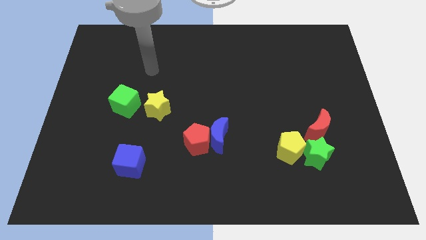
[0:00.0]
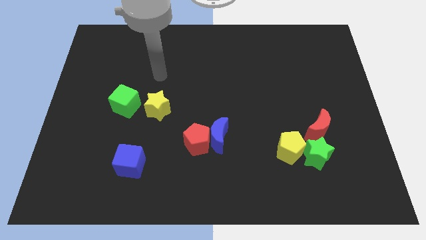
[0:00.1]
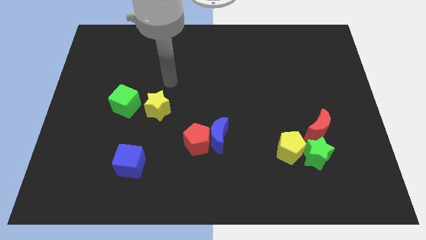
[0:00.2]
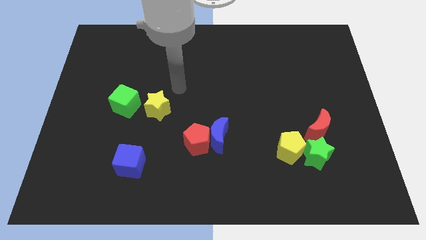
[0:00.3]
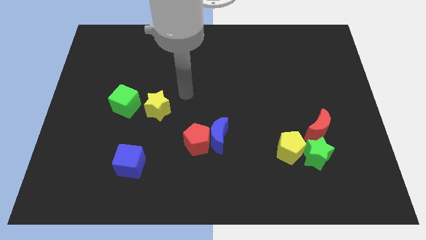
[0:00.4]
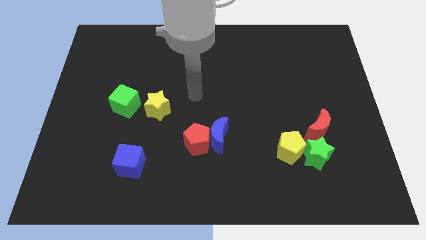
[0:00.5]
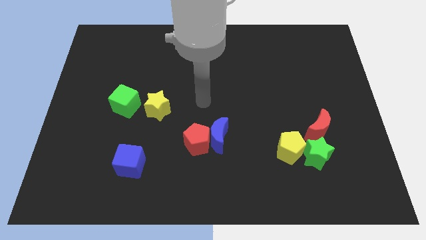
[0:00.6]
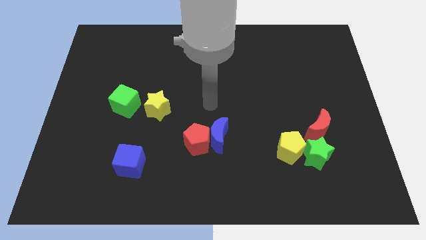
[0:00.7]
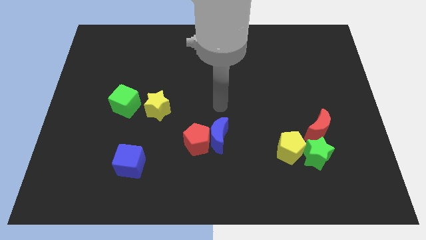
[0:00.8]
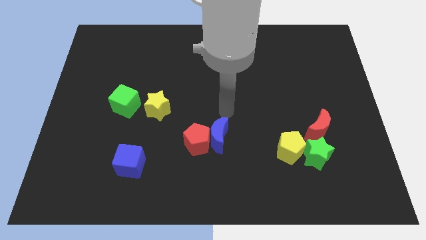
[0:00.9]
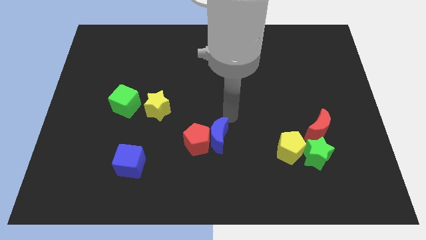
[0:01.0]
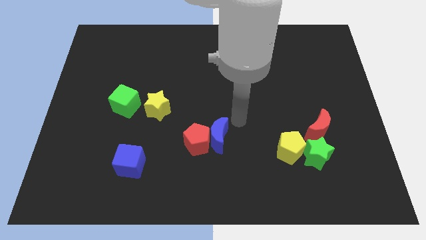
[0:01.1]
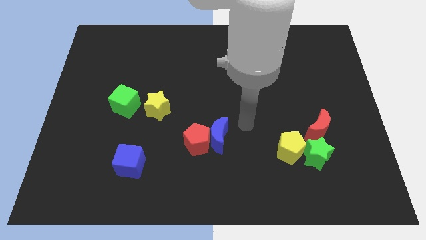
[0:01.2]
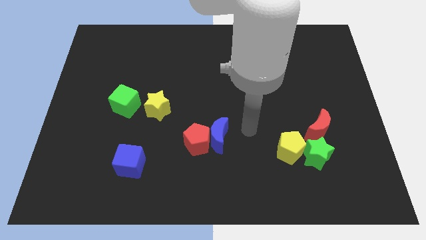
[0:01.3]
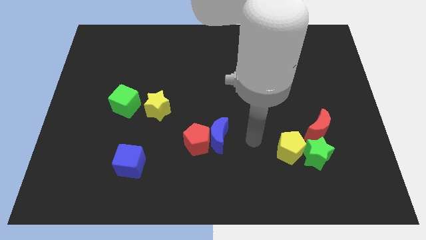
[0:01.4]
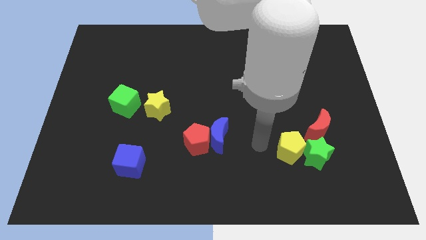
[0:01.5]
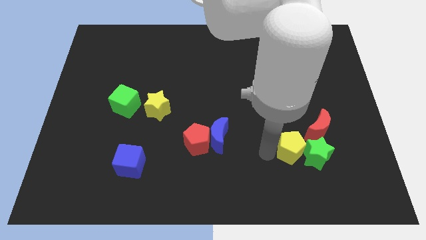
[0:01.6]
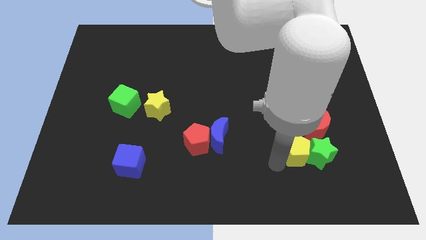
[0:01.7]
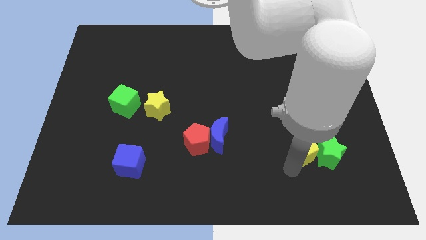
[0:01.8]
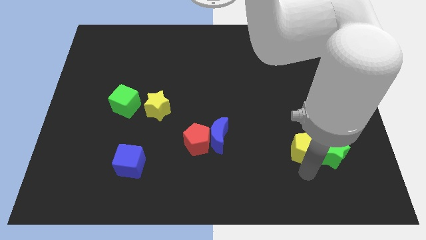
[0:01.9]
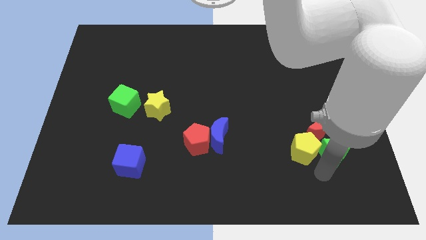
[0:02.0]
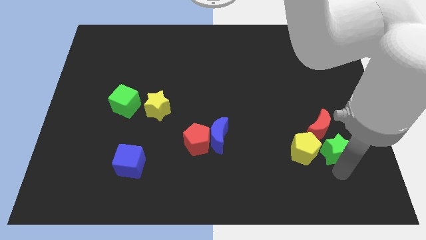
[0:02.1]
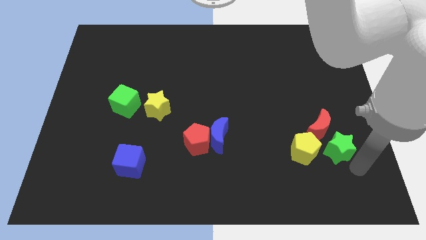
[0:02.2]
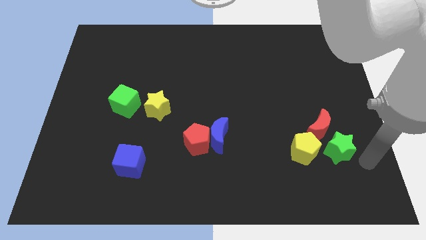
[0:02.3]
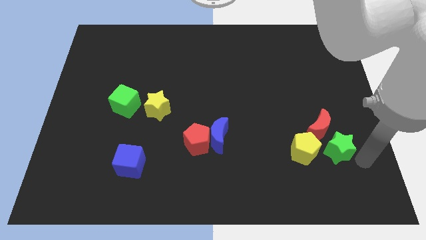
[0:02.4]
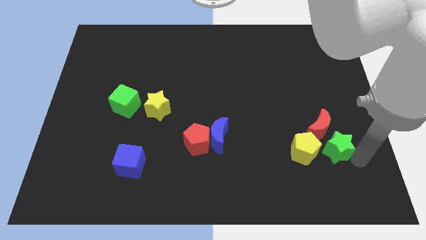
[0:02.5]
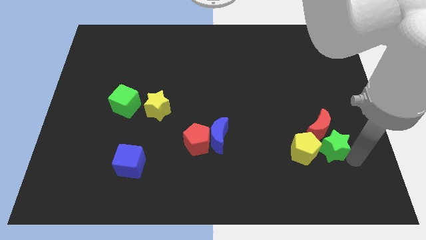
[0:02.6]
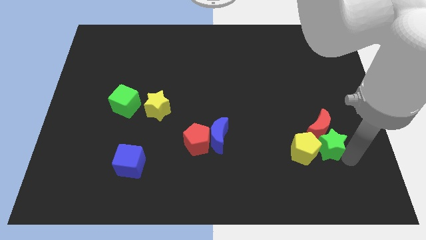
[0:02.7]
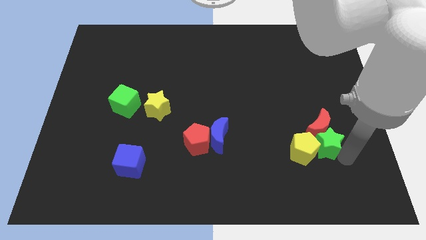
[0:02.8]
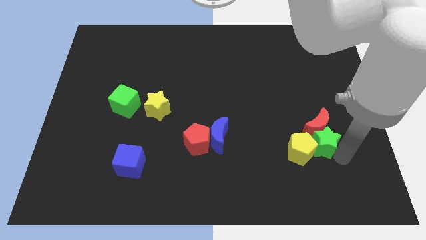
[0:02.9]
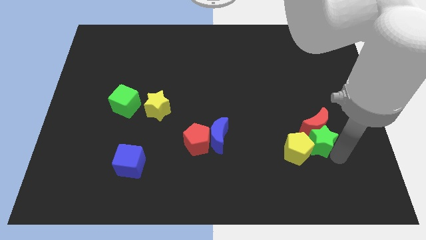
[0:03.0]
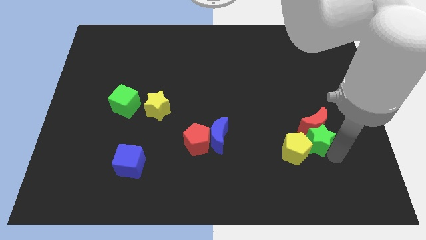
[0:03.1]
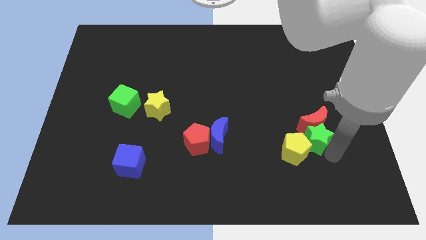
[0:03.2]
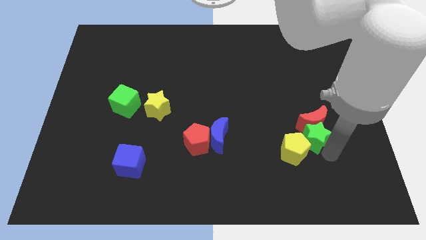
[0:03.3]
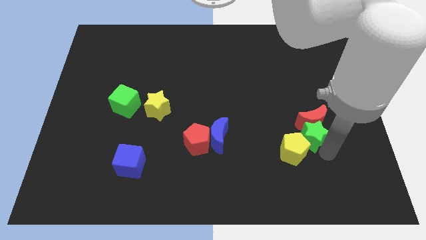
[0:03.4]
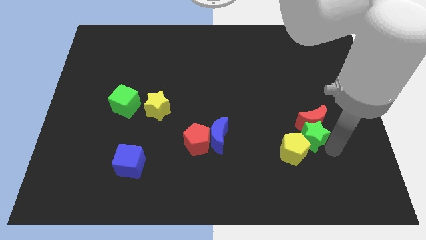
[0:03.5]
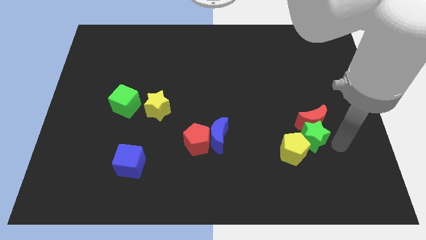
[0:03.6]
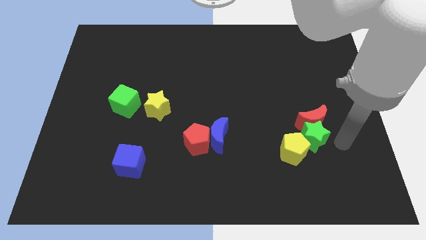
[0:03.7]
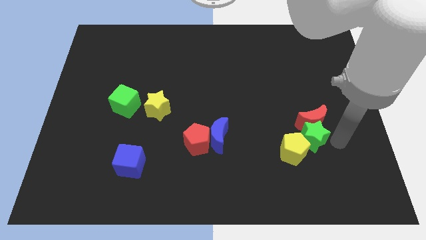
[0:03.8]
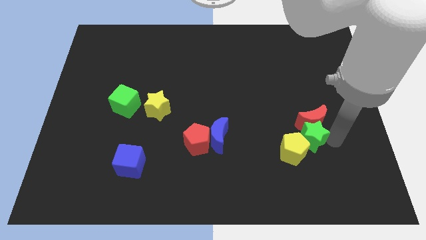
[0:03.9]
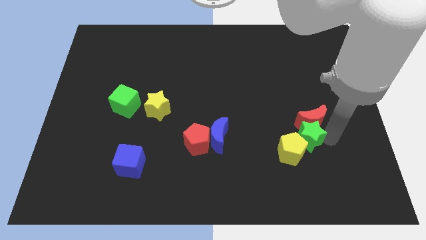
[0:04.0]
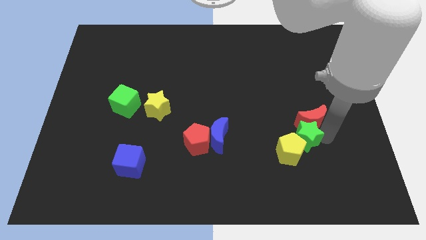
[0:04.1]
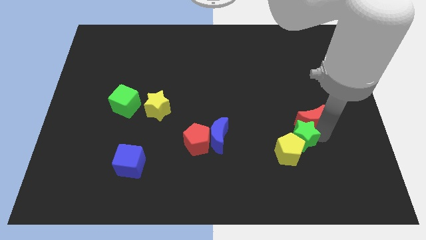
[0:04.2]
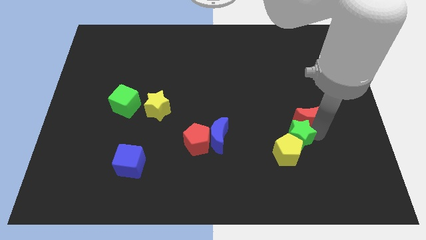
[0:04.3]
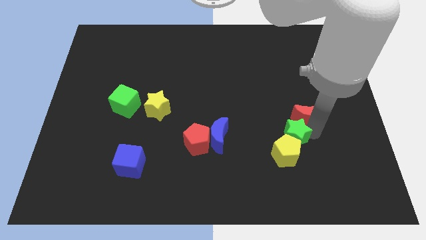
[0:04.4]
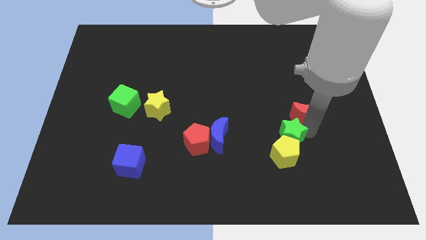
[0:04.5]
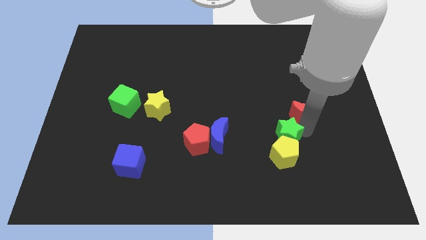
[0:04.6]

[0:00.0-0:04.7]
move the green star diagonally up and to the left of the yellow pentagon

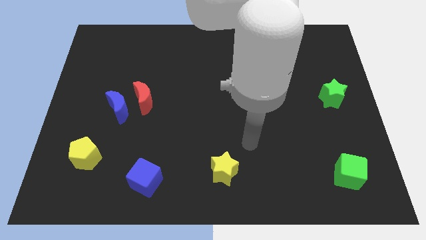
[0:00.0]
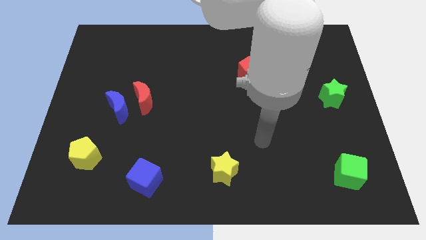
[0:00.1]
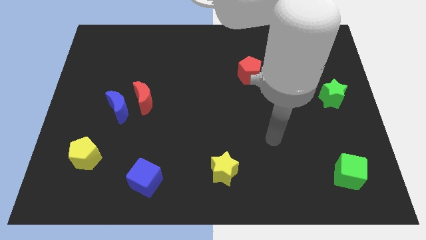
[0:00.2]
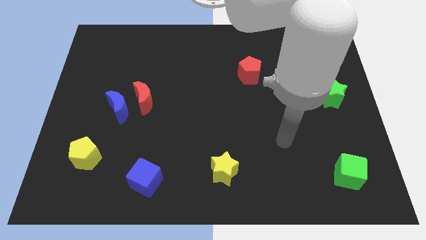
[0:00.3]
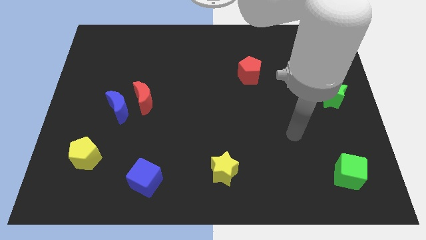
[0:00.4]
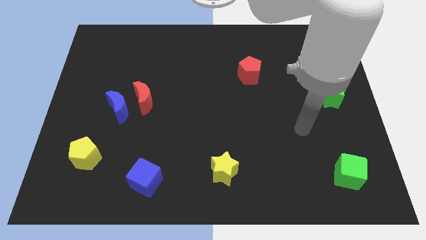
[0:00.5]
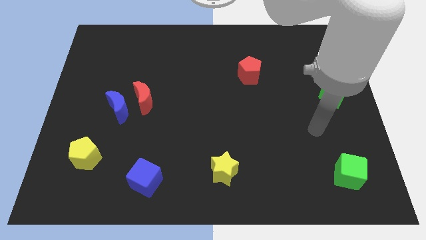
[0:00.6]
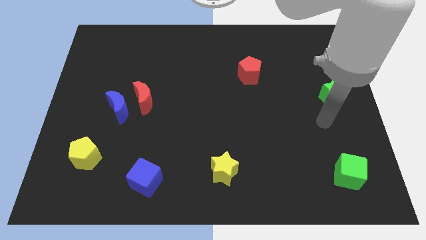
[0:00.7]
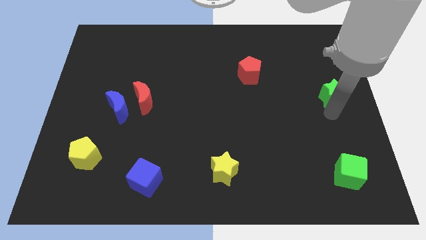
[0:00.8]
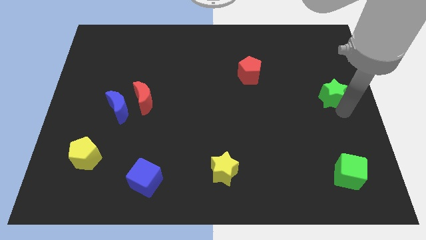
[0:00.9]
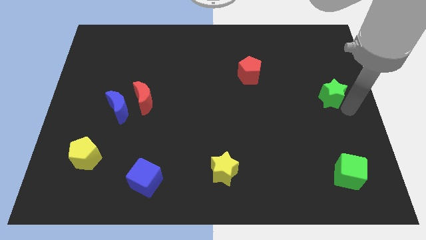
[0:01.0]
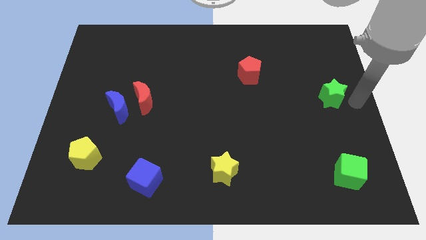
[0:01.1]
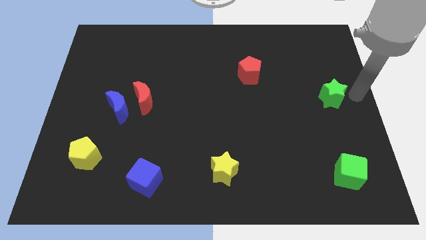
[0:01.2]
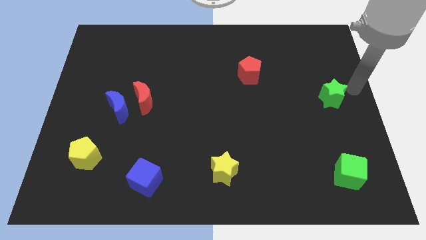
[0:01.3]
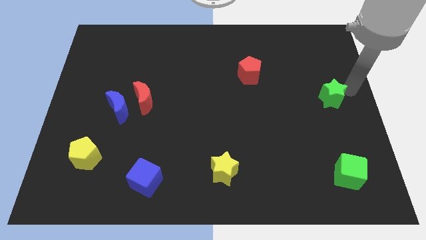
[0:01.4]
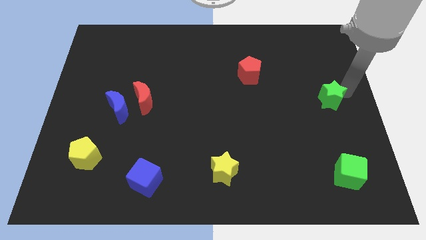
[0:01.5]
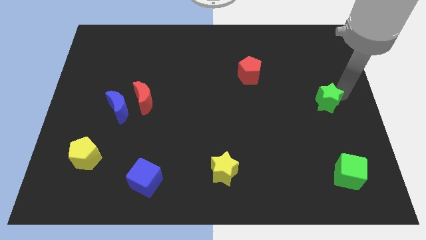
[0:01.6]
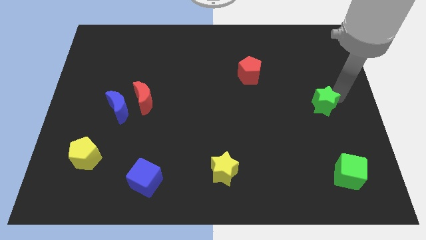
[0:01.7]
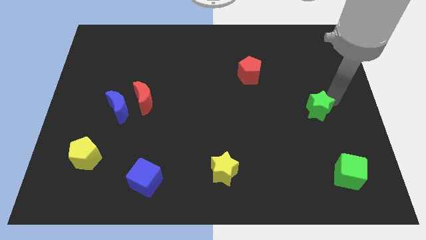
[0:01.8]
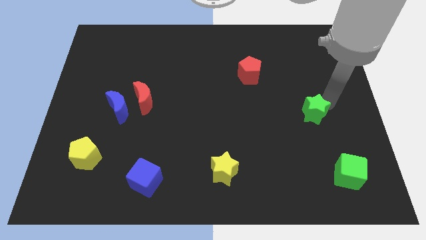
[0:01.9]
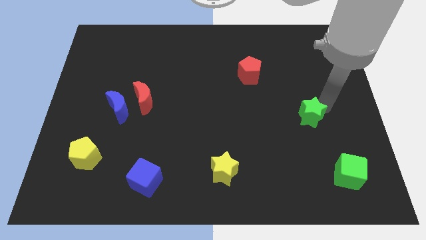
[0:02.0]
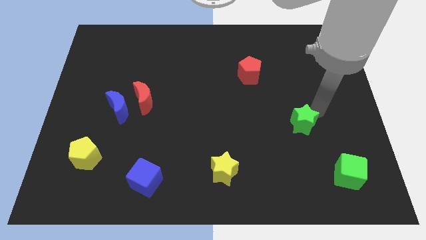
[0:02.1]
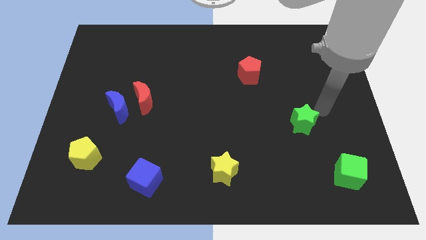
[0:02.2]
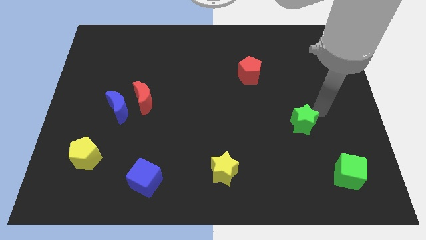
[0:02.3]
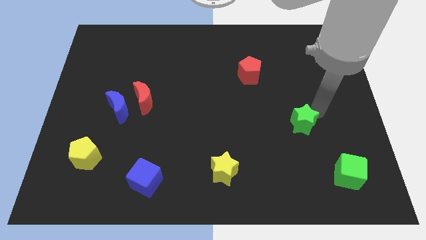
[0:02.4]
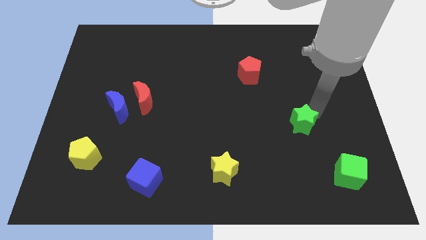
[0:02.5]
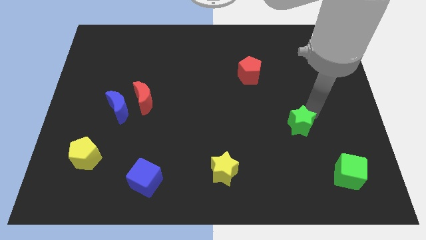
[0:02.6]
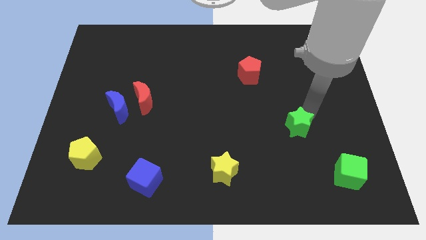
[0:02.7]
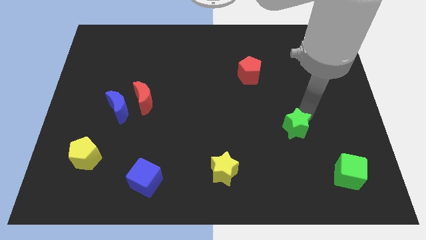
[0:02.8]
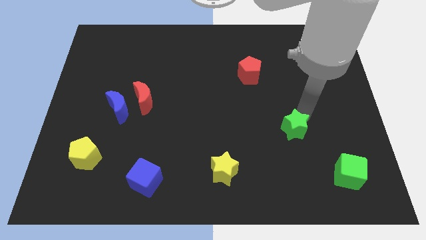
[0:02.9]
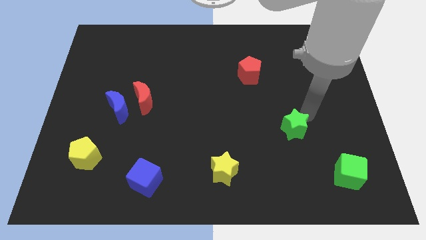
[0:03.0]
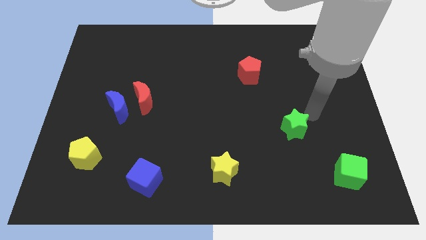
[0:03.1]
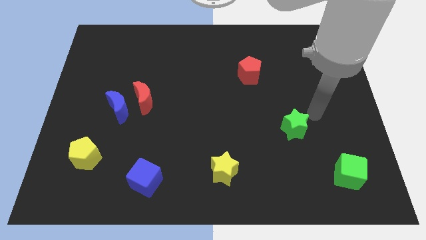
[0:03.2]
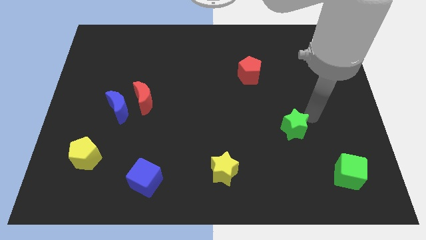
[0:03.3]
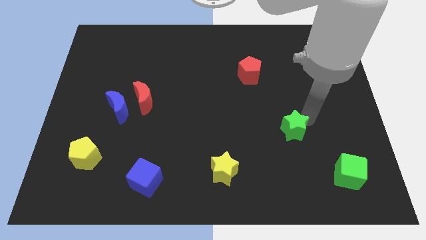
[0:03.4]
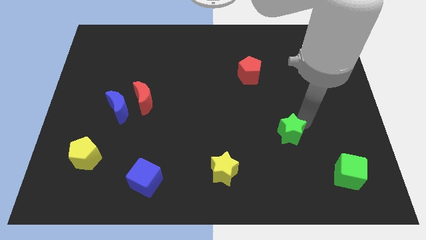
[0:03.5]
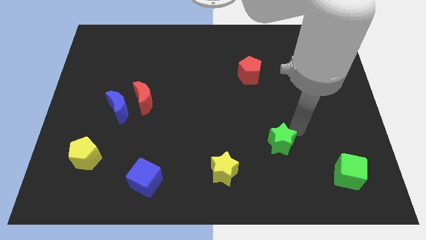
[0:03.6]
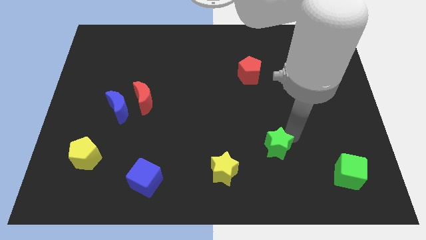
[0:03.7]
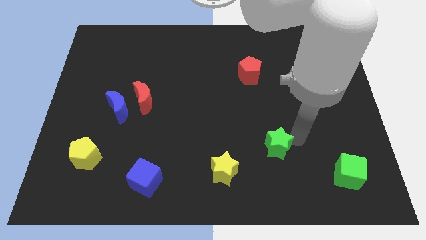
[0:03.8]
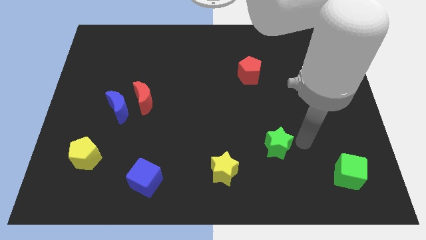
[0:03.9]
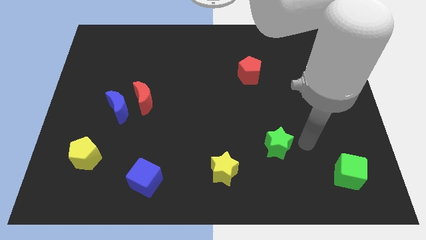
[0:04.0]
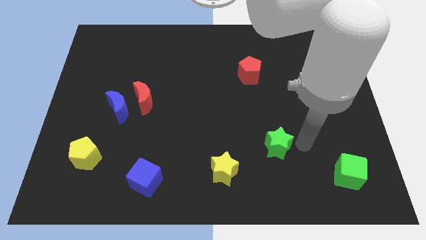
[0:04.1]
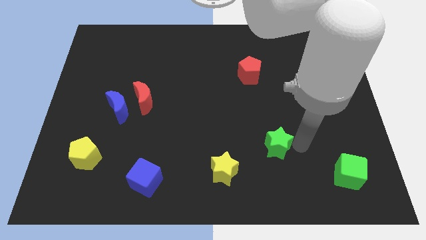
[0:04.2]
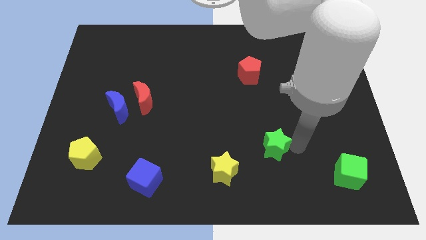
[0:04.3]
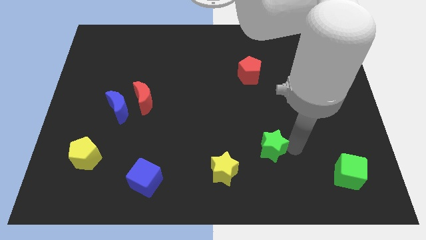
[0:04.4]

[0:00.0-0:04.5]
slide the green star to the top right side of the yellow star
